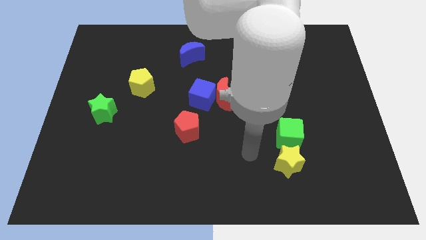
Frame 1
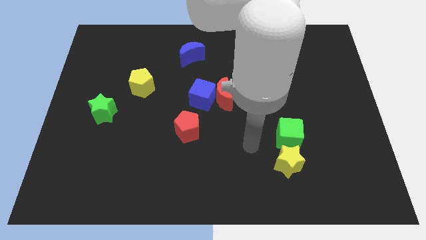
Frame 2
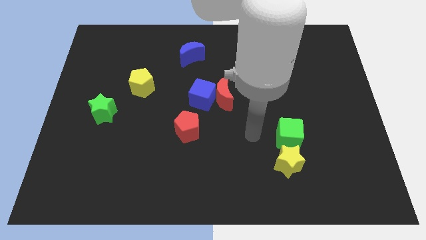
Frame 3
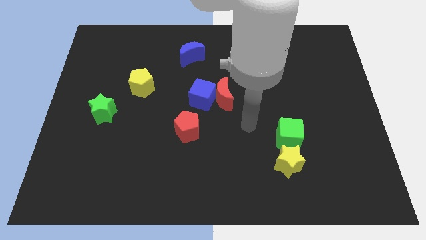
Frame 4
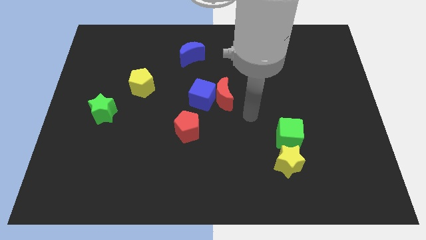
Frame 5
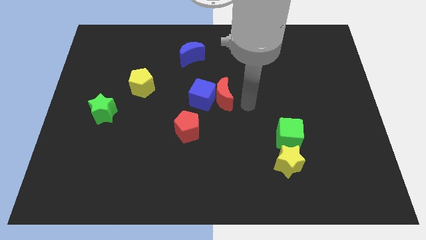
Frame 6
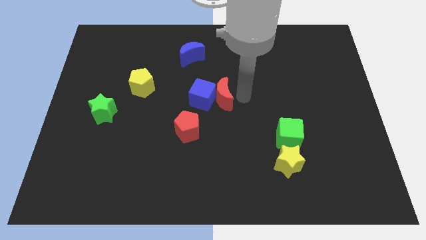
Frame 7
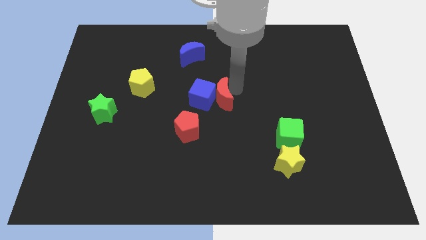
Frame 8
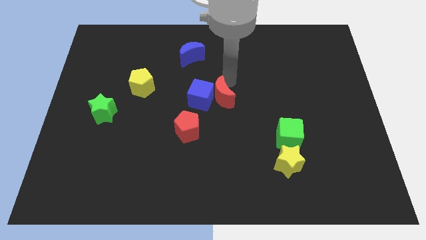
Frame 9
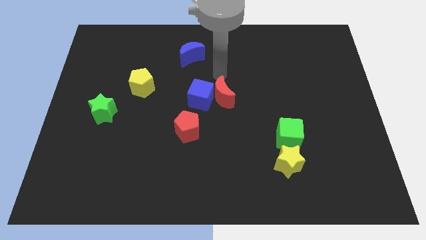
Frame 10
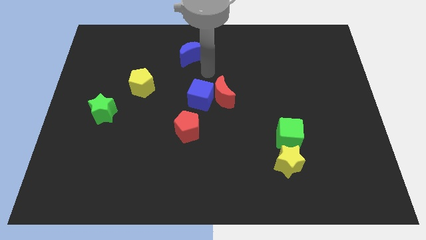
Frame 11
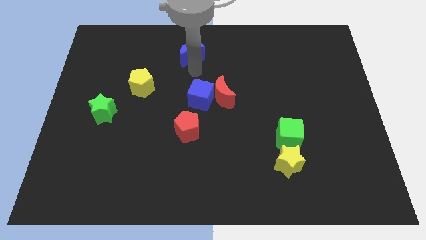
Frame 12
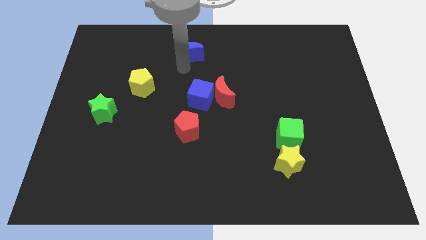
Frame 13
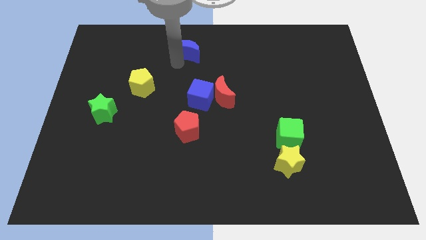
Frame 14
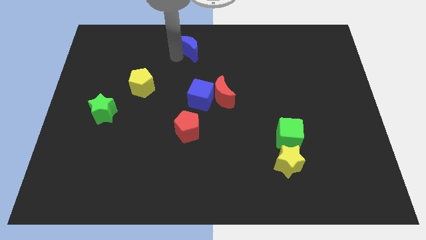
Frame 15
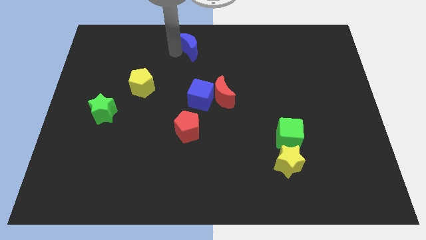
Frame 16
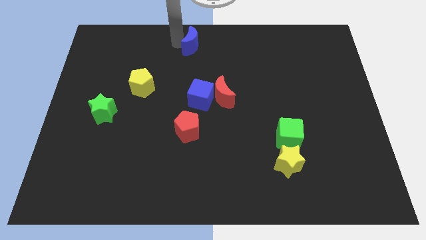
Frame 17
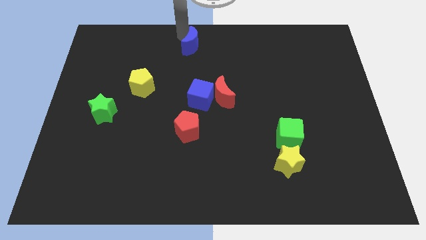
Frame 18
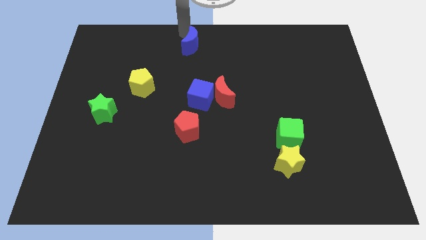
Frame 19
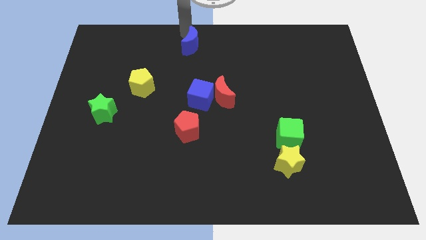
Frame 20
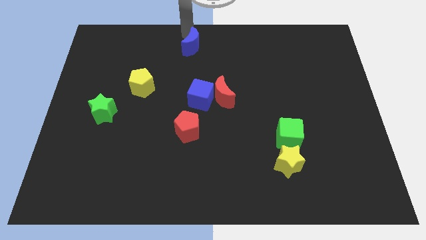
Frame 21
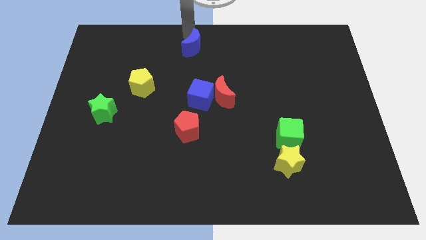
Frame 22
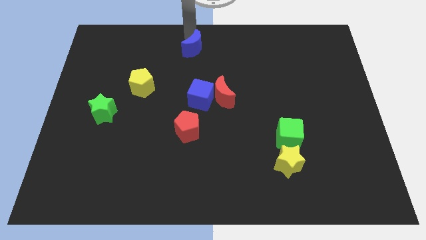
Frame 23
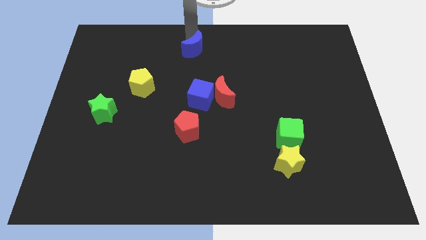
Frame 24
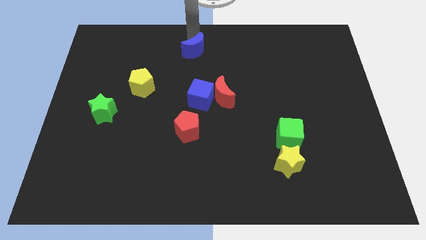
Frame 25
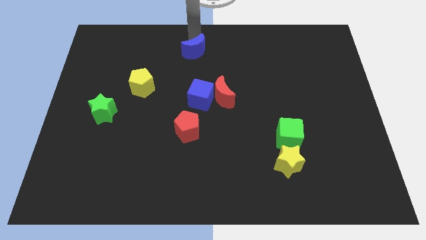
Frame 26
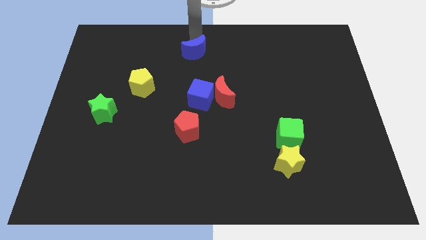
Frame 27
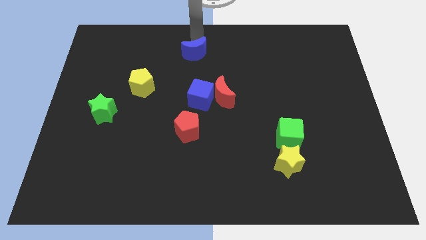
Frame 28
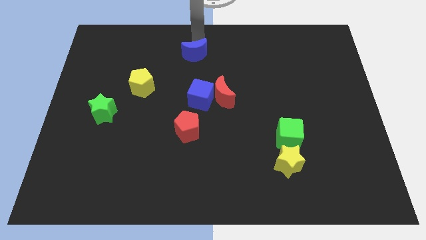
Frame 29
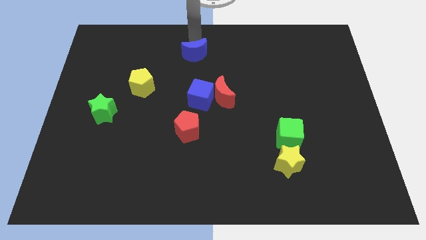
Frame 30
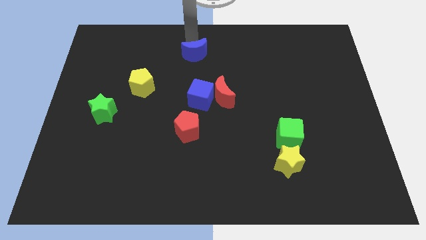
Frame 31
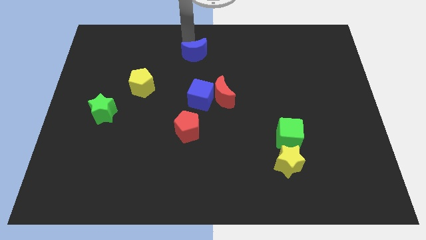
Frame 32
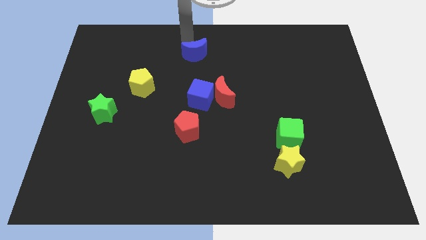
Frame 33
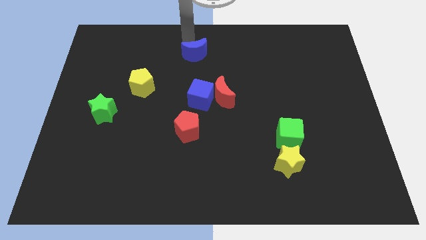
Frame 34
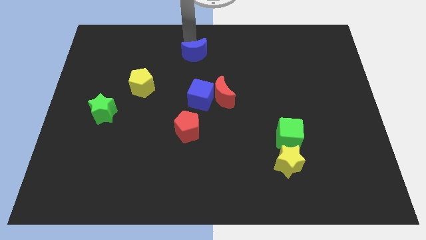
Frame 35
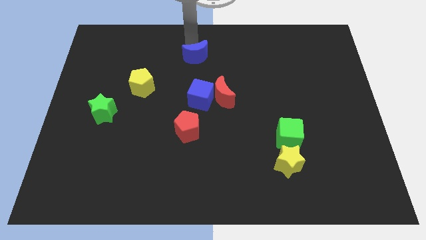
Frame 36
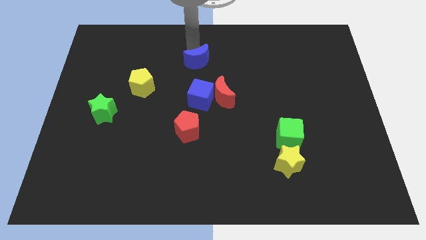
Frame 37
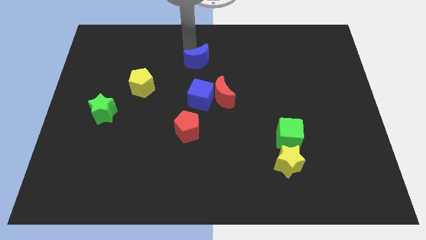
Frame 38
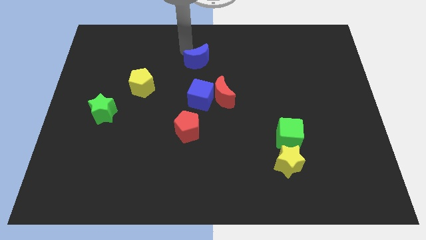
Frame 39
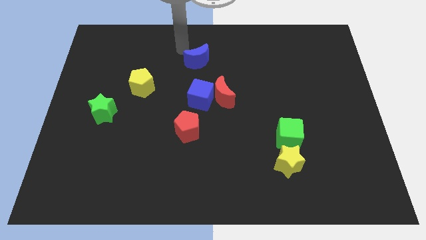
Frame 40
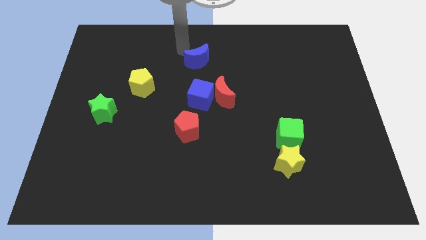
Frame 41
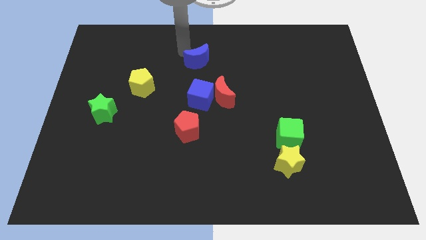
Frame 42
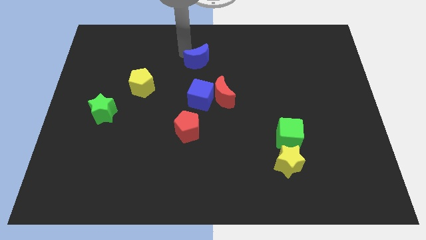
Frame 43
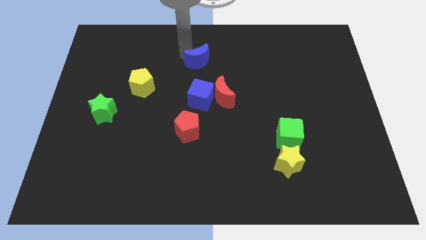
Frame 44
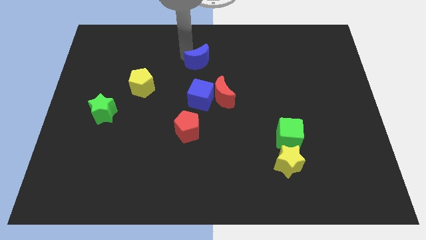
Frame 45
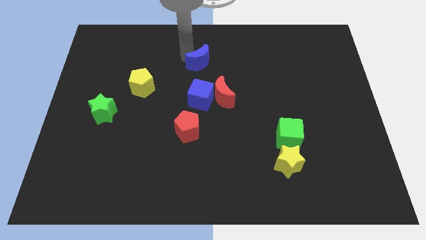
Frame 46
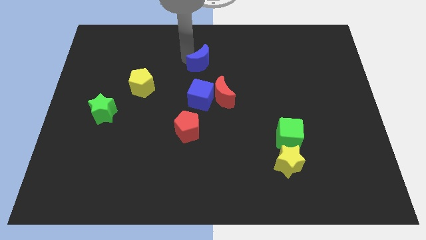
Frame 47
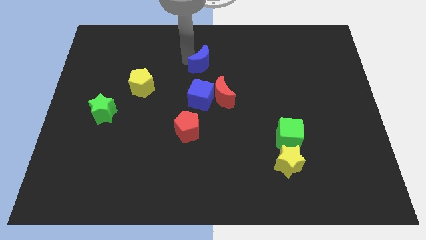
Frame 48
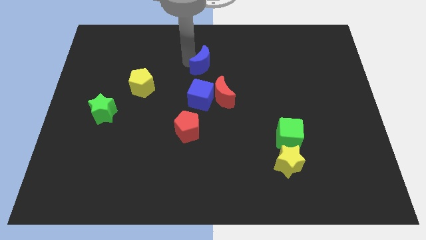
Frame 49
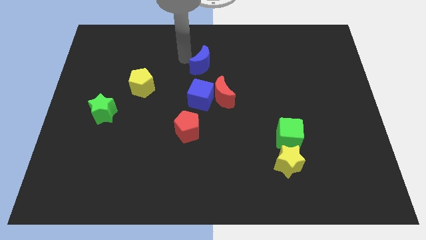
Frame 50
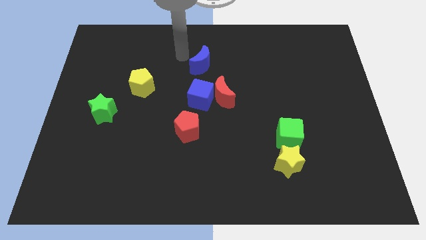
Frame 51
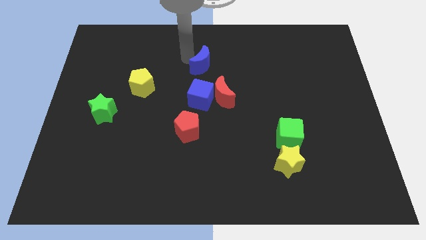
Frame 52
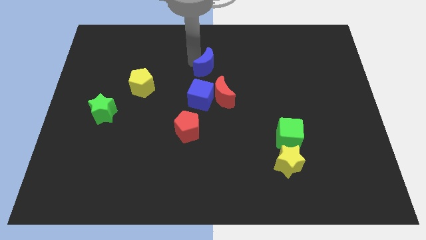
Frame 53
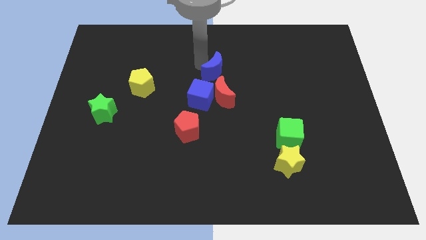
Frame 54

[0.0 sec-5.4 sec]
move the blue moon a little downwards and right diagonally

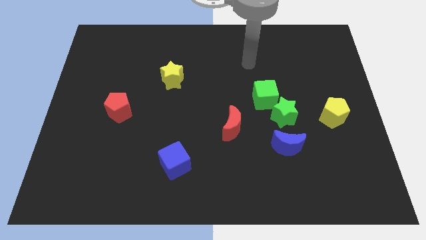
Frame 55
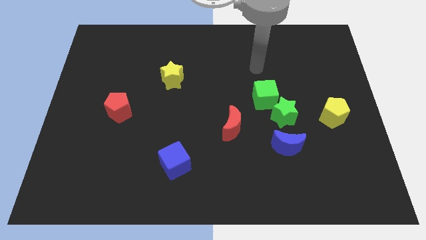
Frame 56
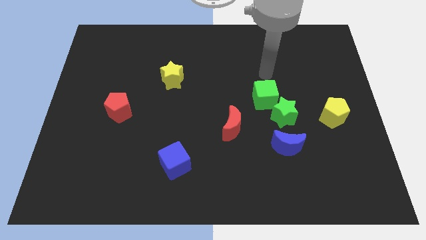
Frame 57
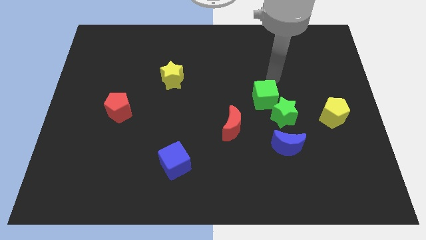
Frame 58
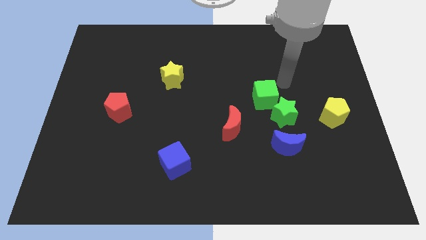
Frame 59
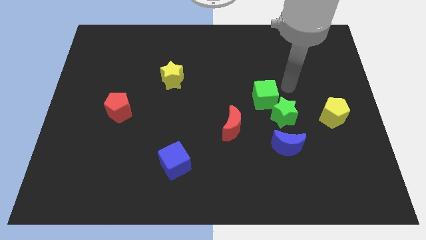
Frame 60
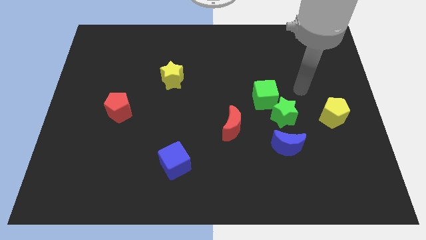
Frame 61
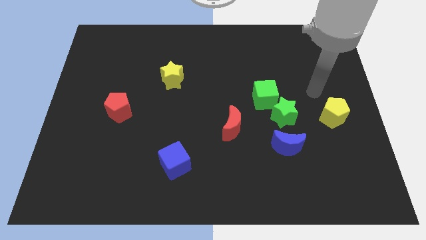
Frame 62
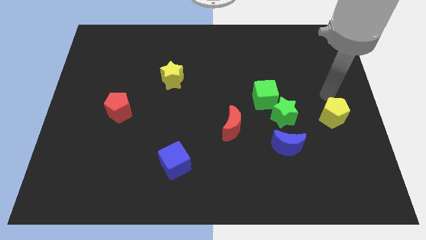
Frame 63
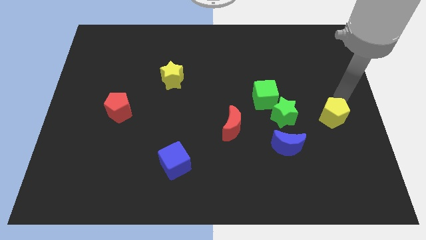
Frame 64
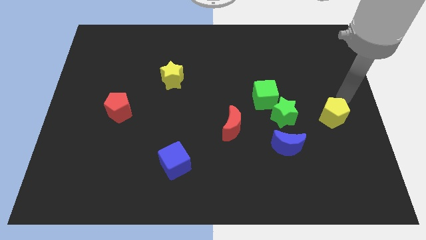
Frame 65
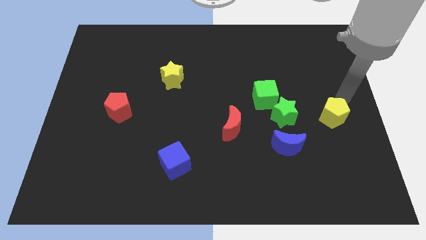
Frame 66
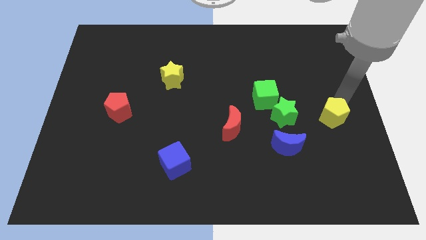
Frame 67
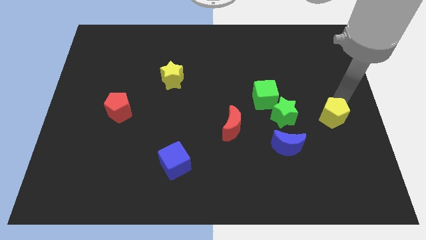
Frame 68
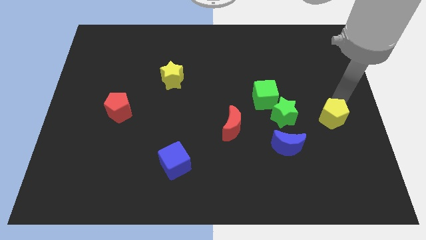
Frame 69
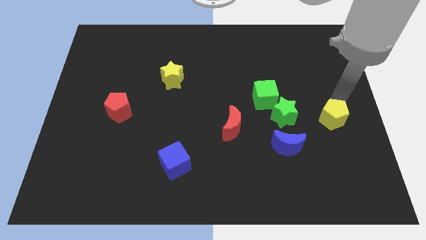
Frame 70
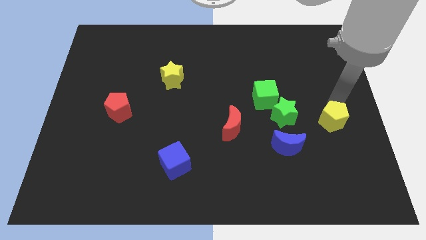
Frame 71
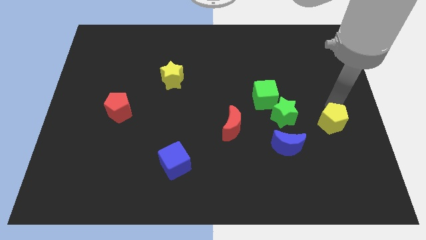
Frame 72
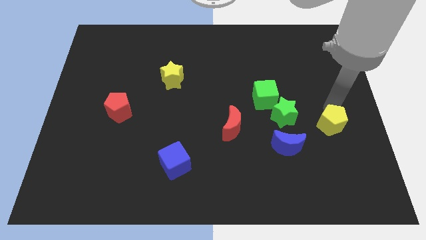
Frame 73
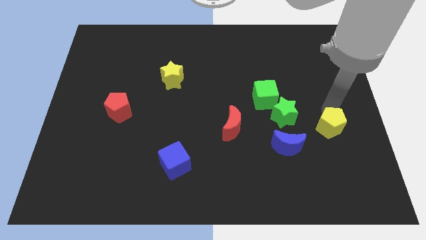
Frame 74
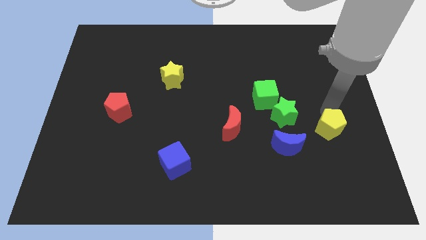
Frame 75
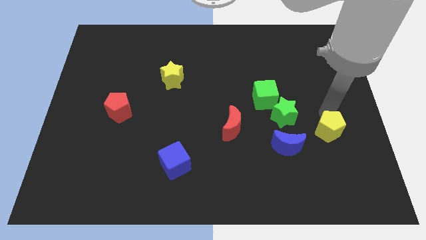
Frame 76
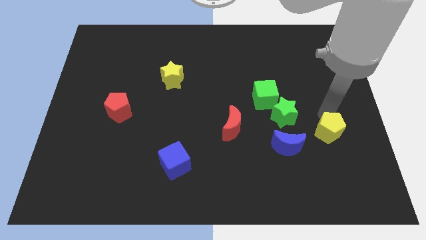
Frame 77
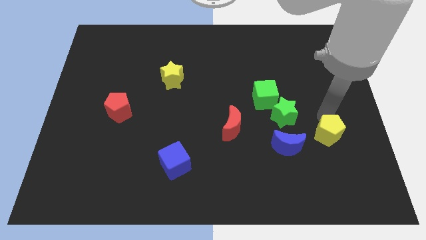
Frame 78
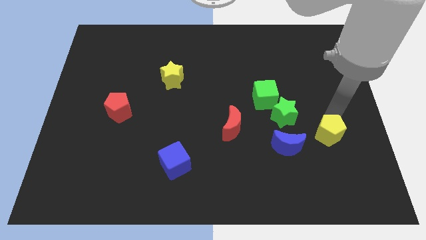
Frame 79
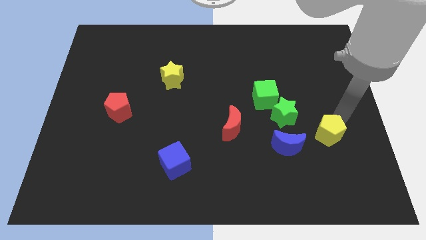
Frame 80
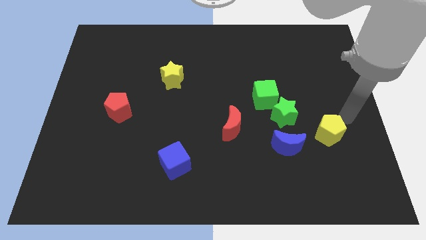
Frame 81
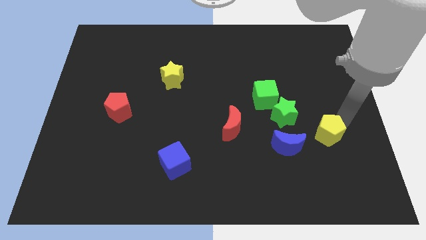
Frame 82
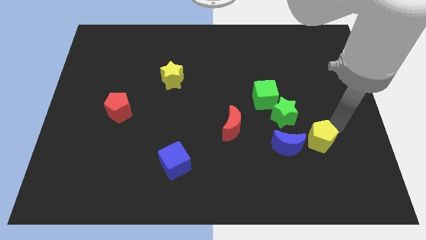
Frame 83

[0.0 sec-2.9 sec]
slightly push the yellow pentagon diagonally down and left
